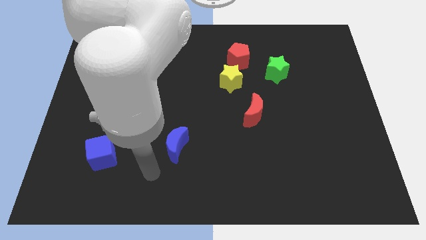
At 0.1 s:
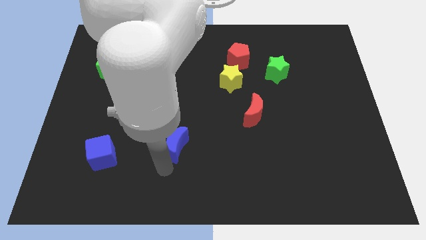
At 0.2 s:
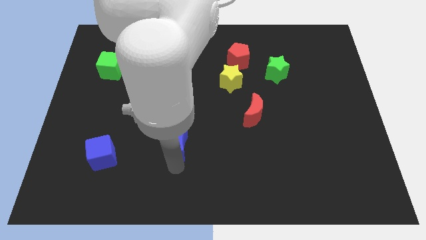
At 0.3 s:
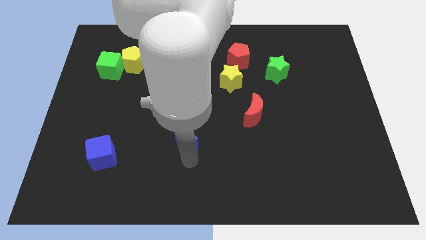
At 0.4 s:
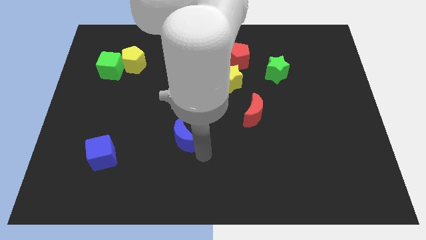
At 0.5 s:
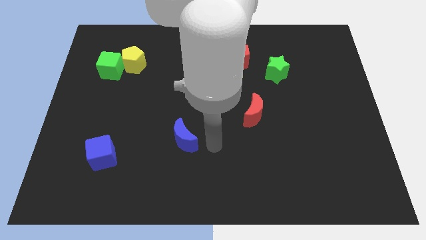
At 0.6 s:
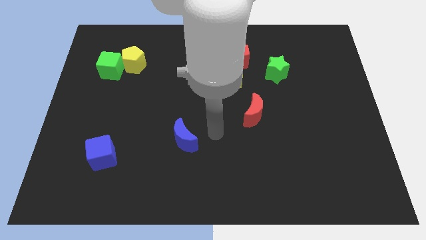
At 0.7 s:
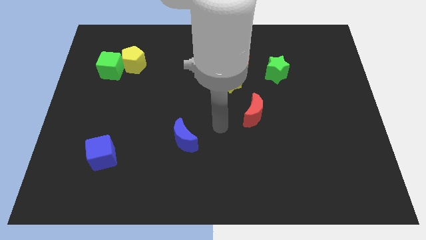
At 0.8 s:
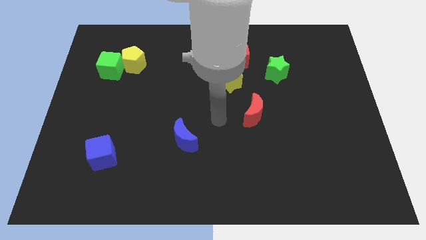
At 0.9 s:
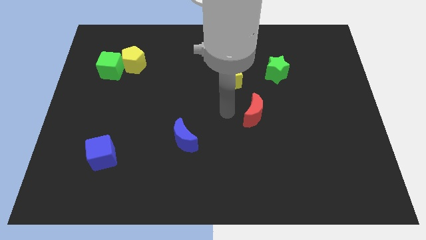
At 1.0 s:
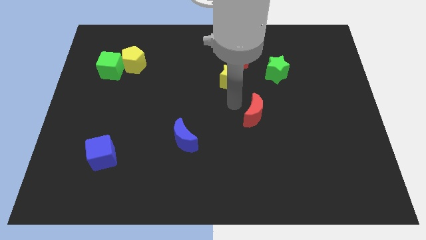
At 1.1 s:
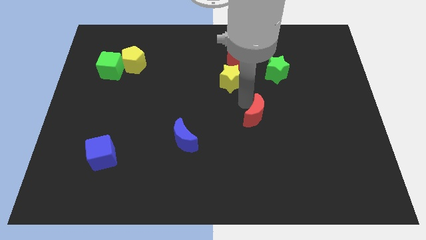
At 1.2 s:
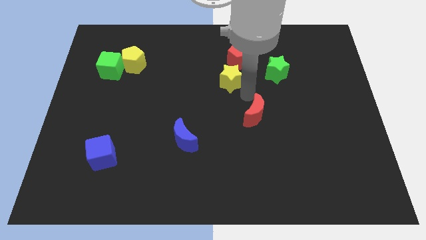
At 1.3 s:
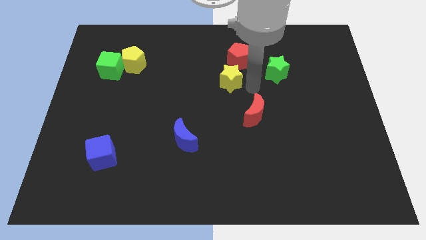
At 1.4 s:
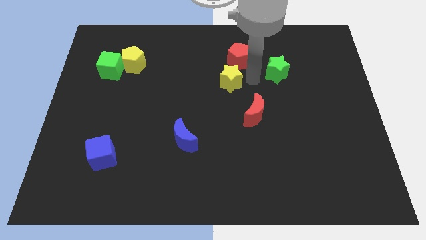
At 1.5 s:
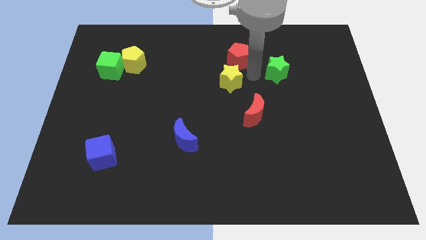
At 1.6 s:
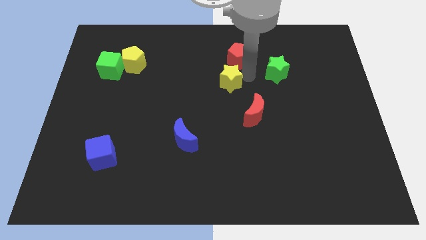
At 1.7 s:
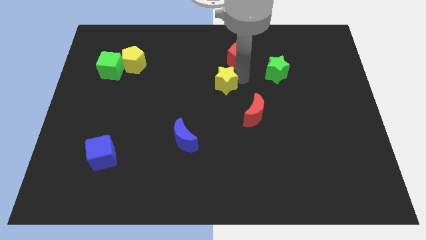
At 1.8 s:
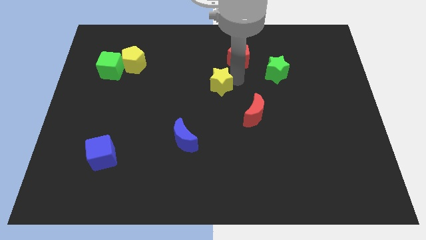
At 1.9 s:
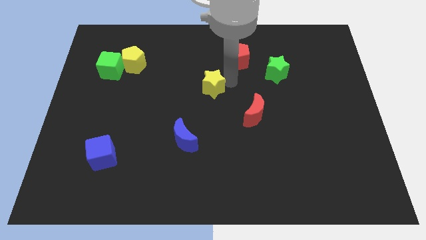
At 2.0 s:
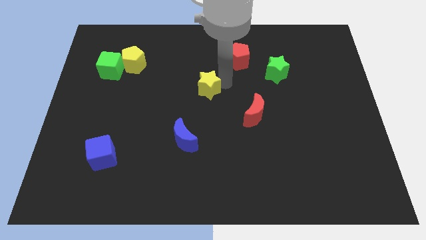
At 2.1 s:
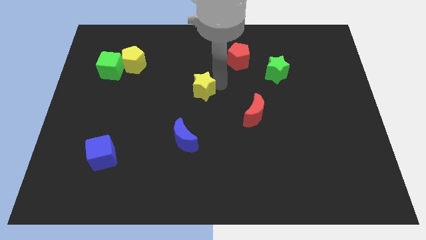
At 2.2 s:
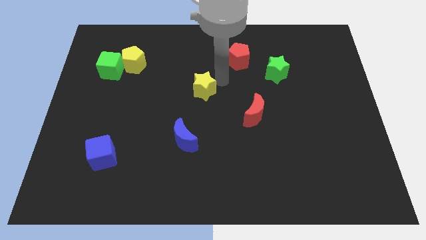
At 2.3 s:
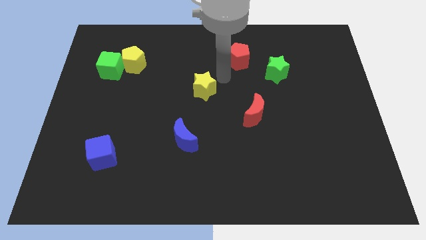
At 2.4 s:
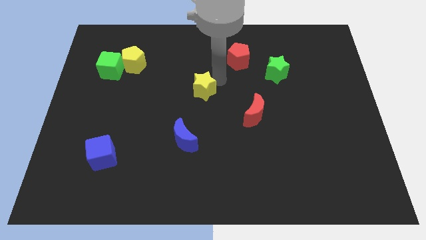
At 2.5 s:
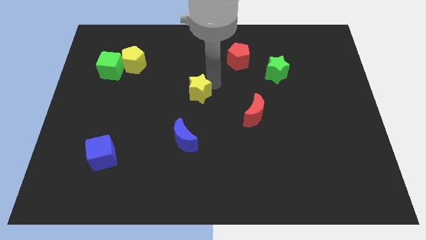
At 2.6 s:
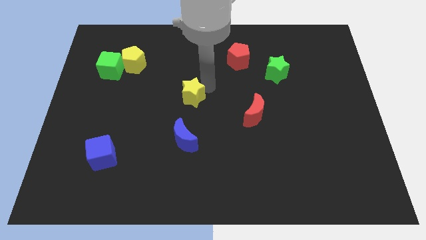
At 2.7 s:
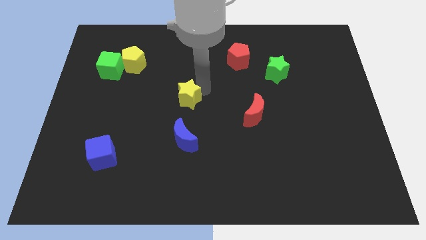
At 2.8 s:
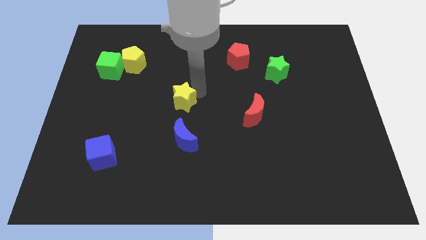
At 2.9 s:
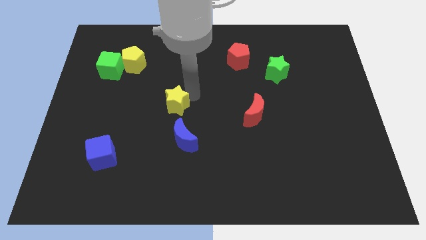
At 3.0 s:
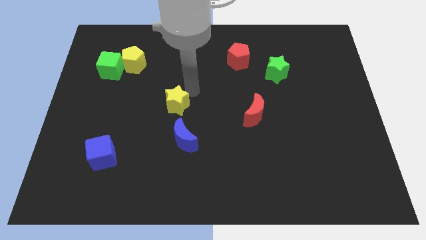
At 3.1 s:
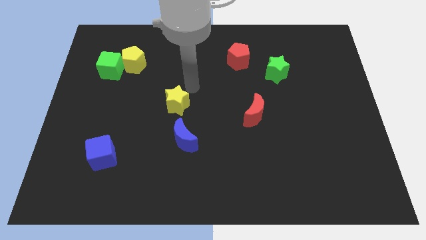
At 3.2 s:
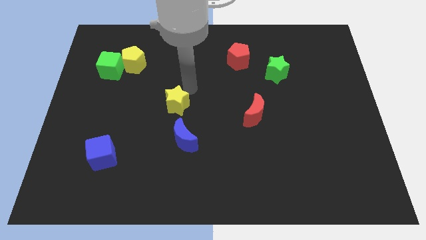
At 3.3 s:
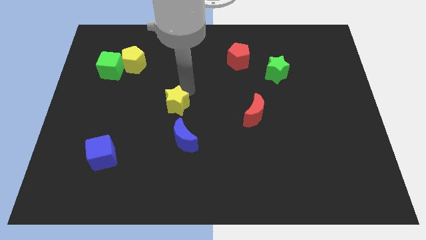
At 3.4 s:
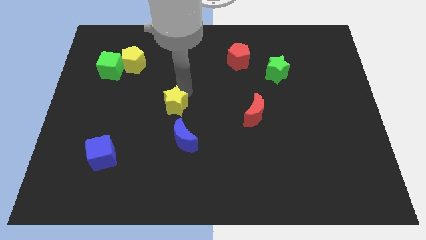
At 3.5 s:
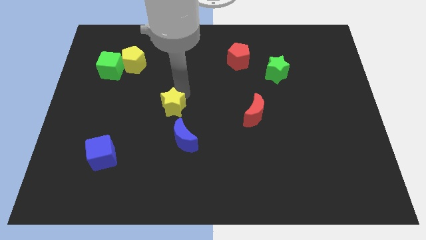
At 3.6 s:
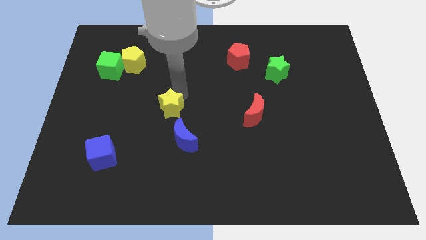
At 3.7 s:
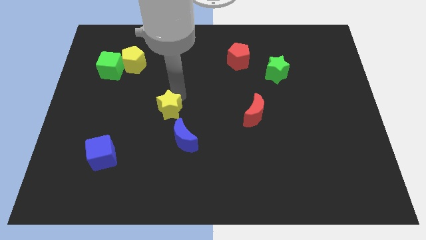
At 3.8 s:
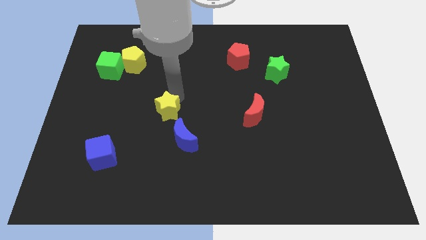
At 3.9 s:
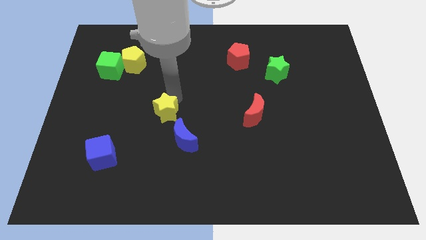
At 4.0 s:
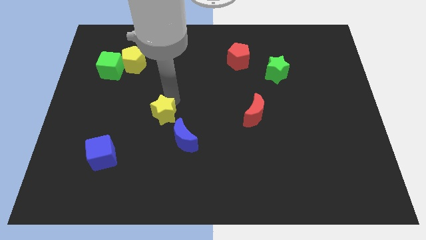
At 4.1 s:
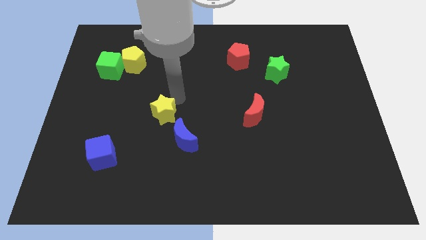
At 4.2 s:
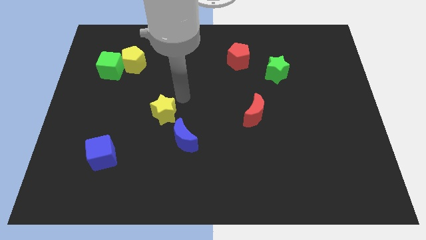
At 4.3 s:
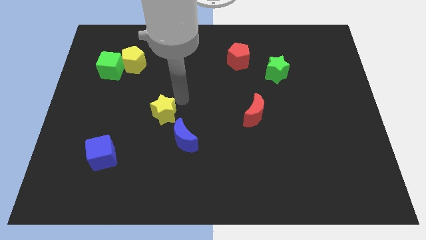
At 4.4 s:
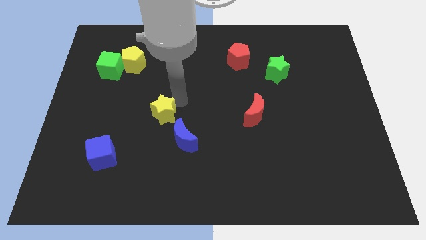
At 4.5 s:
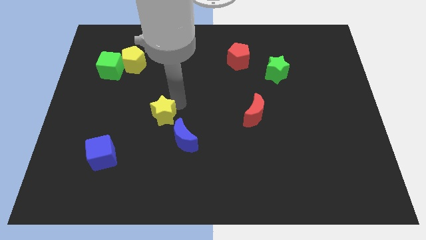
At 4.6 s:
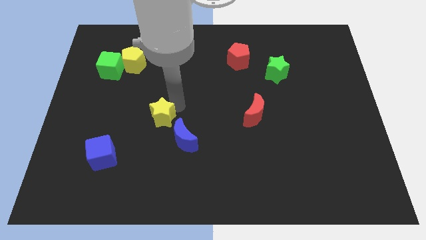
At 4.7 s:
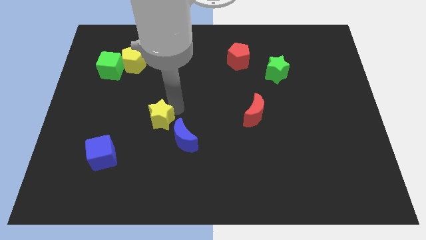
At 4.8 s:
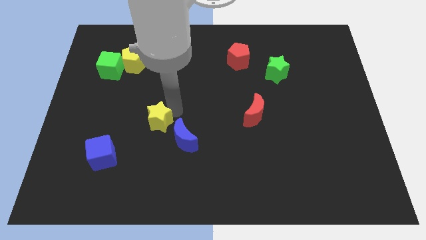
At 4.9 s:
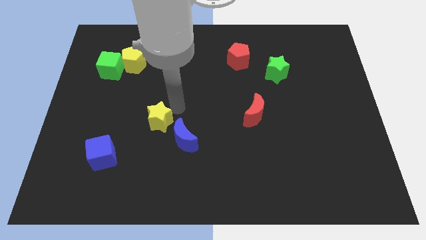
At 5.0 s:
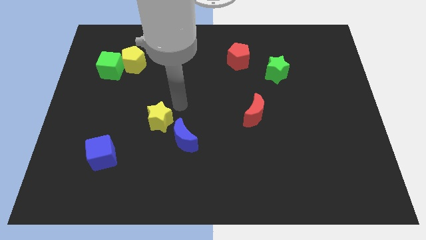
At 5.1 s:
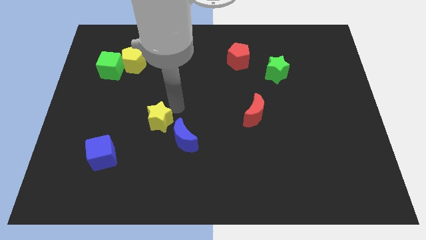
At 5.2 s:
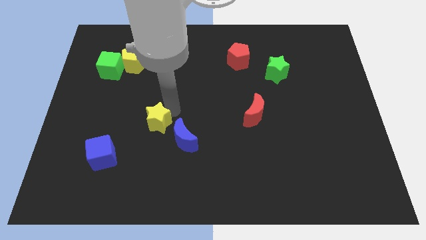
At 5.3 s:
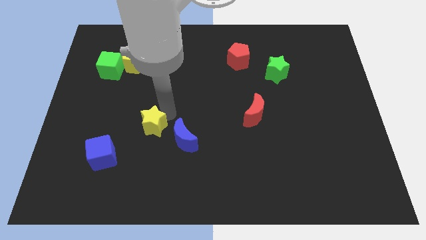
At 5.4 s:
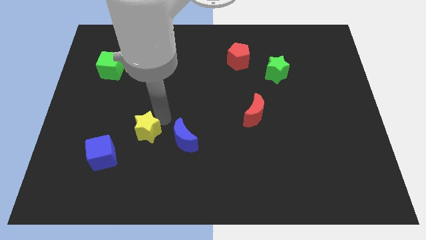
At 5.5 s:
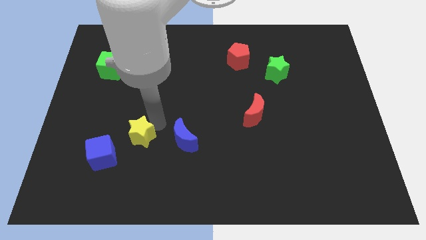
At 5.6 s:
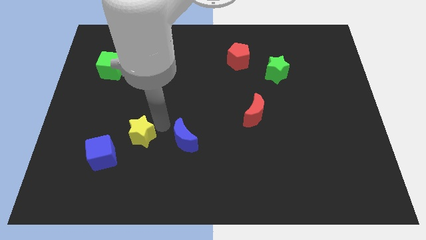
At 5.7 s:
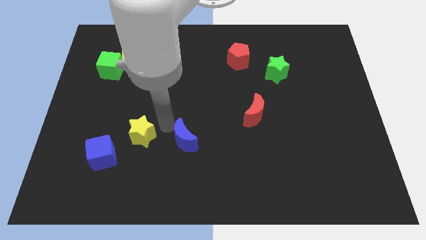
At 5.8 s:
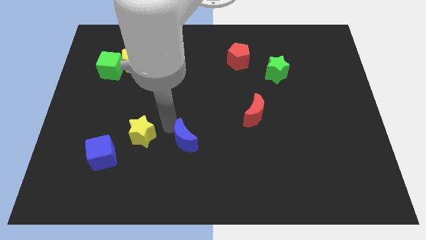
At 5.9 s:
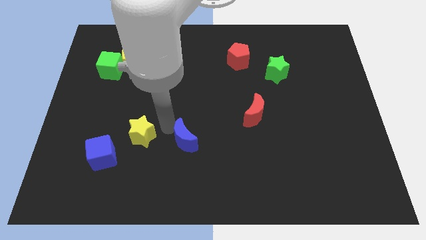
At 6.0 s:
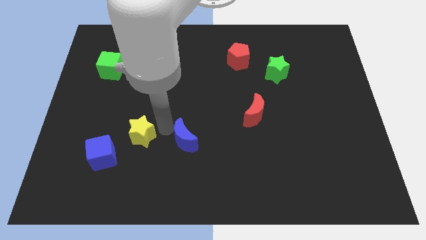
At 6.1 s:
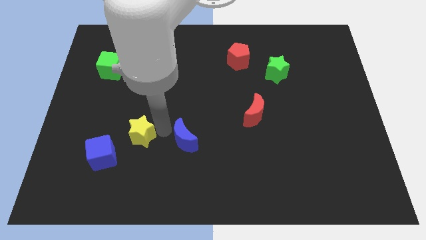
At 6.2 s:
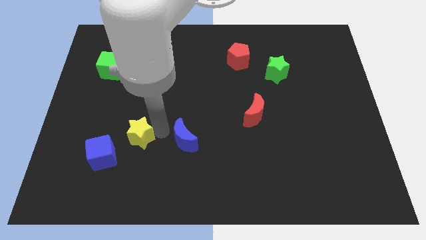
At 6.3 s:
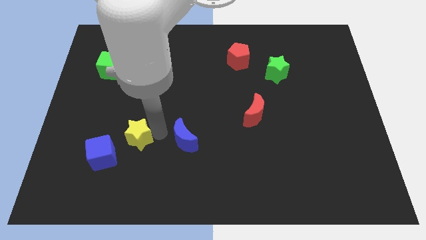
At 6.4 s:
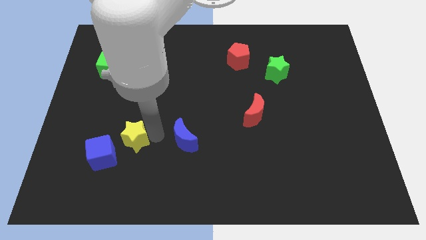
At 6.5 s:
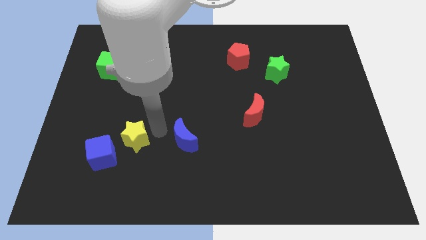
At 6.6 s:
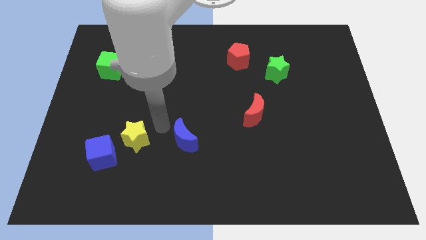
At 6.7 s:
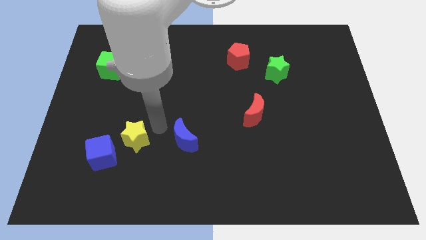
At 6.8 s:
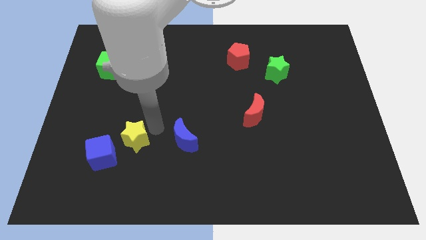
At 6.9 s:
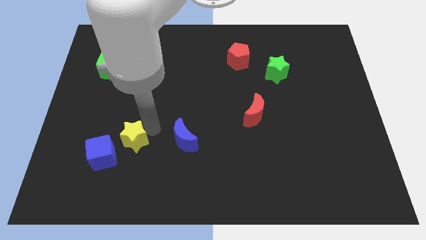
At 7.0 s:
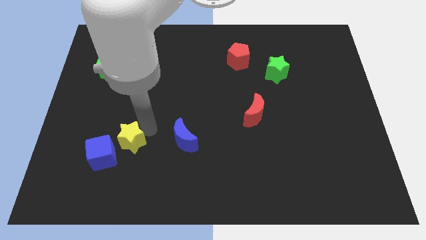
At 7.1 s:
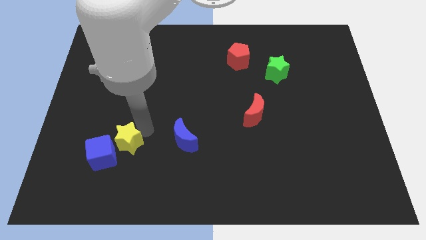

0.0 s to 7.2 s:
push the yellow star next to the blue cube

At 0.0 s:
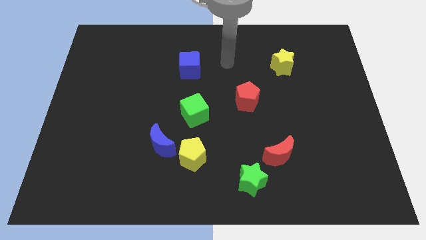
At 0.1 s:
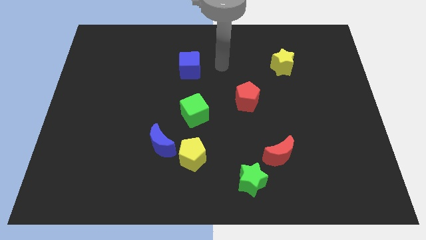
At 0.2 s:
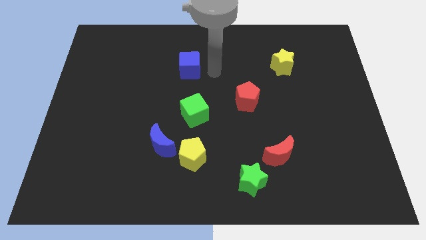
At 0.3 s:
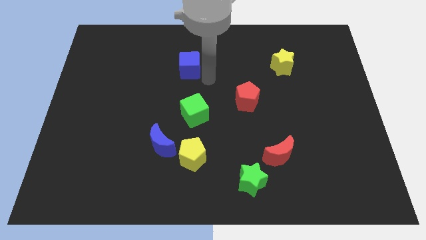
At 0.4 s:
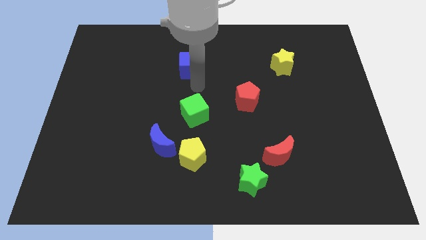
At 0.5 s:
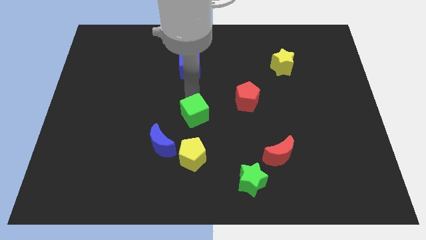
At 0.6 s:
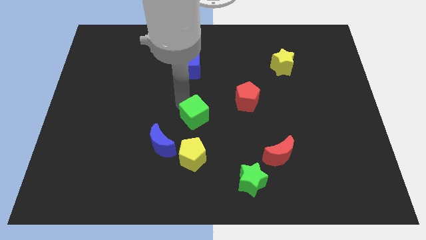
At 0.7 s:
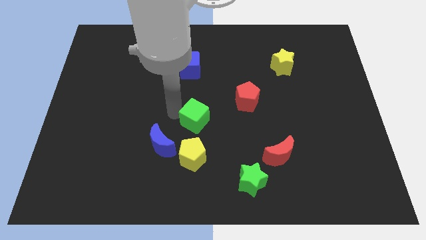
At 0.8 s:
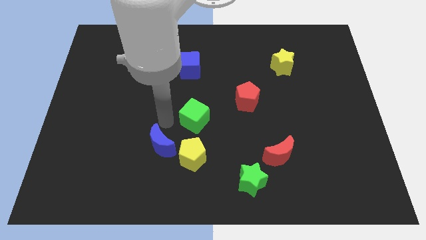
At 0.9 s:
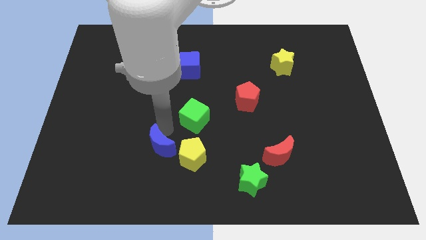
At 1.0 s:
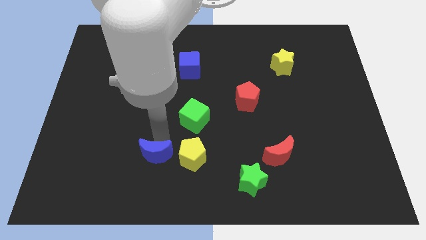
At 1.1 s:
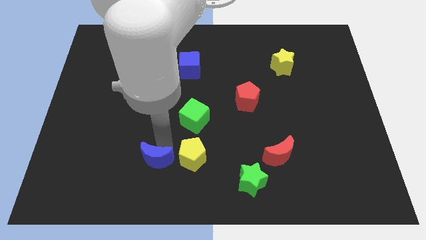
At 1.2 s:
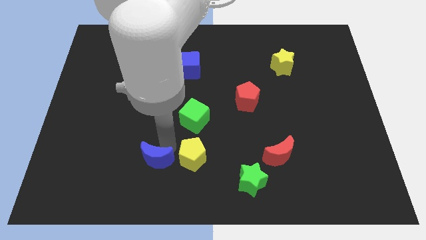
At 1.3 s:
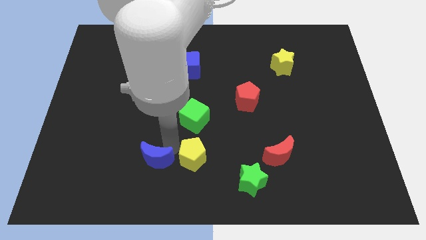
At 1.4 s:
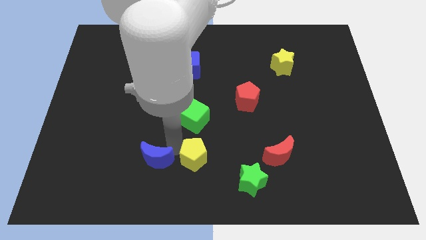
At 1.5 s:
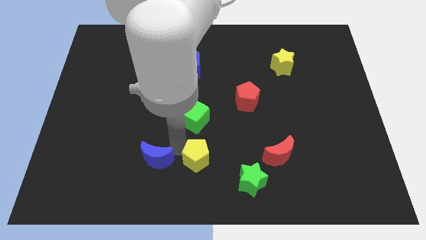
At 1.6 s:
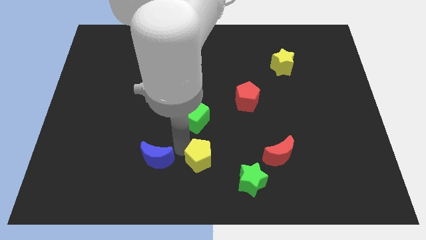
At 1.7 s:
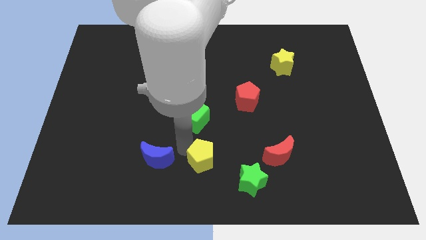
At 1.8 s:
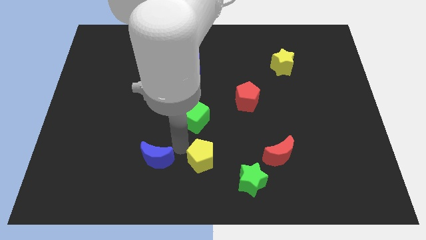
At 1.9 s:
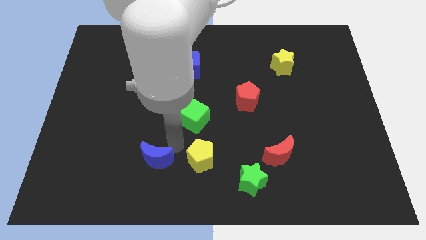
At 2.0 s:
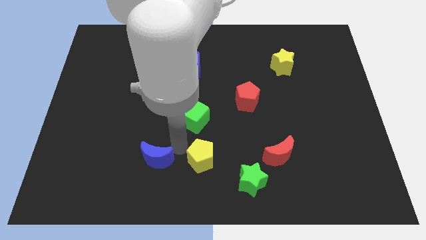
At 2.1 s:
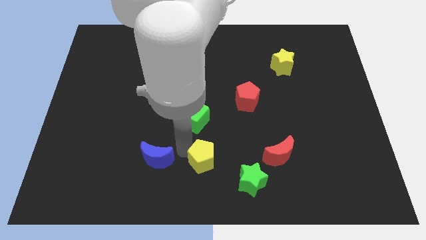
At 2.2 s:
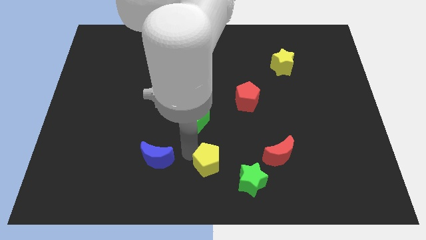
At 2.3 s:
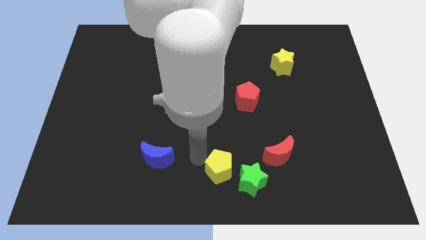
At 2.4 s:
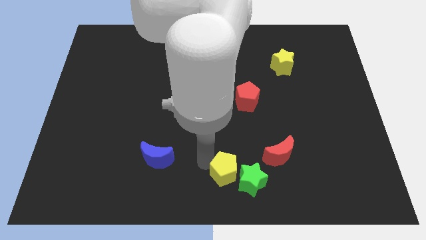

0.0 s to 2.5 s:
push the yellow pentagon next to the green star
